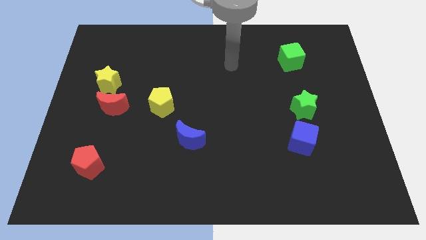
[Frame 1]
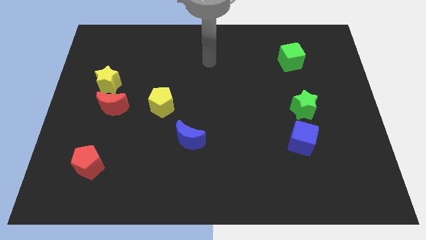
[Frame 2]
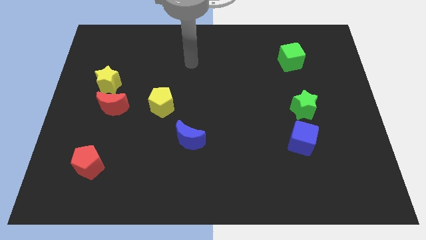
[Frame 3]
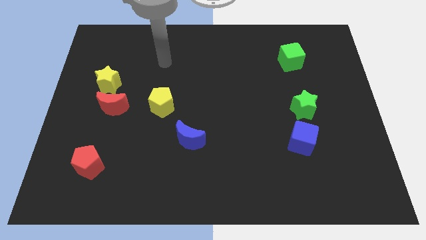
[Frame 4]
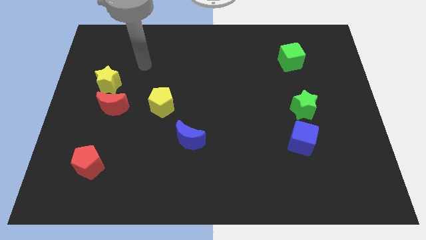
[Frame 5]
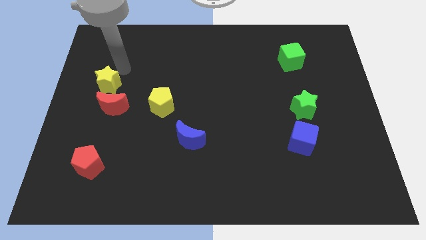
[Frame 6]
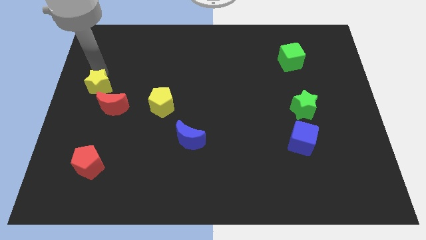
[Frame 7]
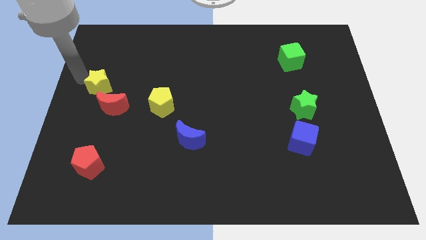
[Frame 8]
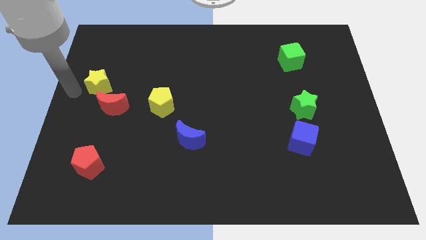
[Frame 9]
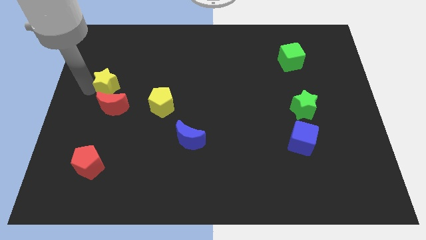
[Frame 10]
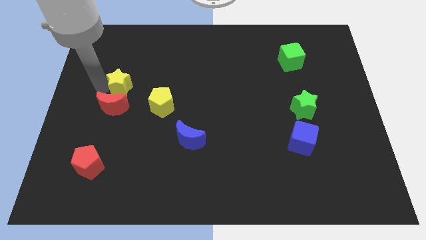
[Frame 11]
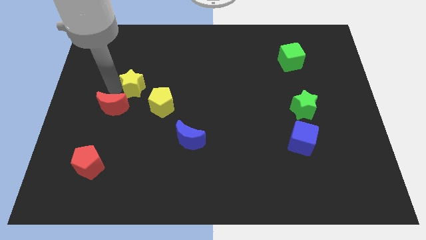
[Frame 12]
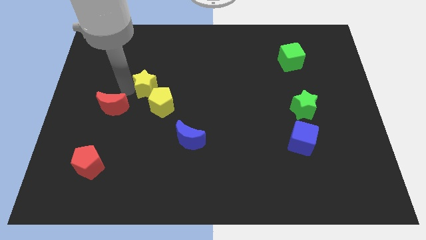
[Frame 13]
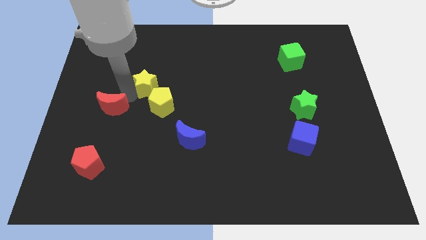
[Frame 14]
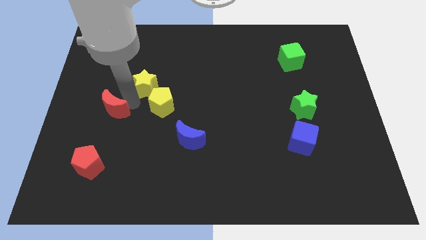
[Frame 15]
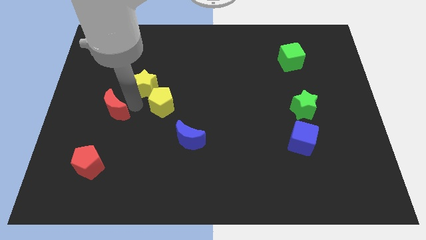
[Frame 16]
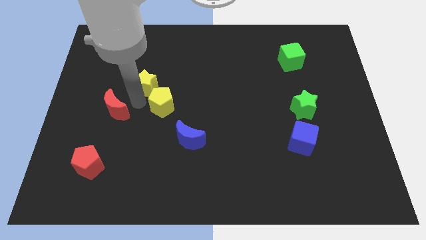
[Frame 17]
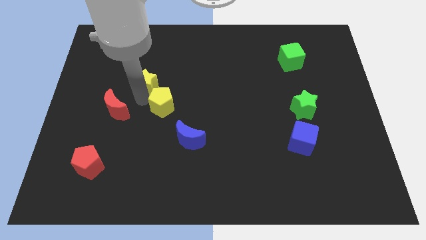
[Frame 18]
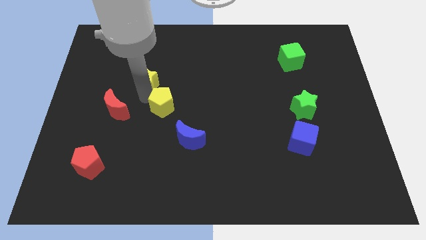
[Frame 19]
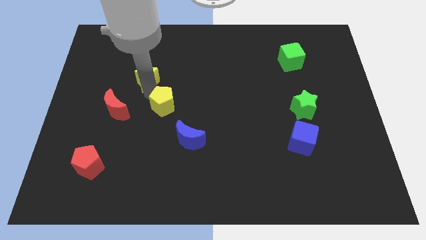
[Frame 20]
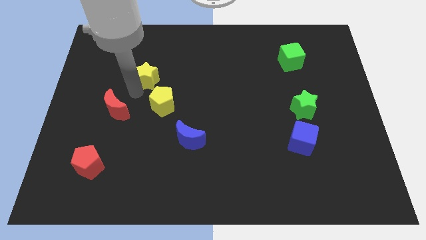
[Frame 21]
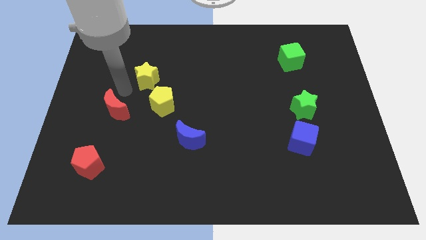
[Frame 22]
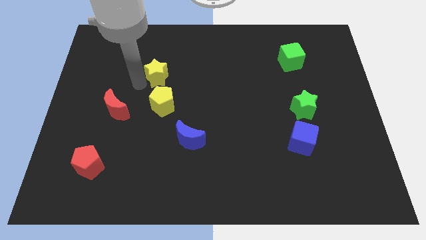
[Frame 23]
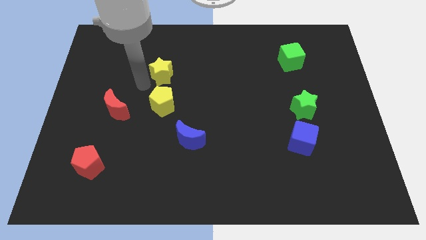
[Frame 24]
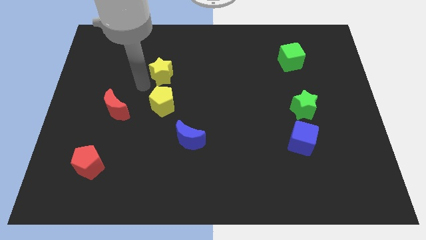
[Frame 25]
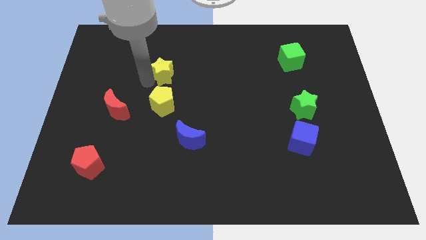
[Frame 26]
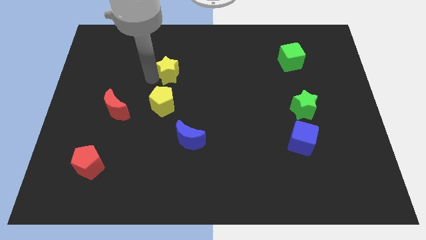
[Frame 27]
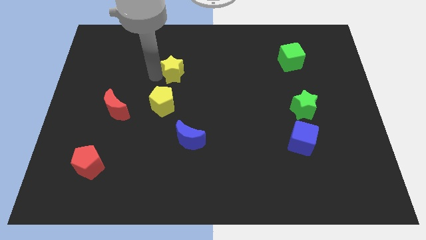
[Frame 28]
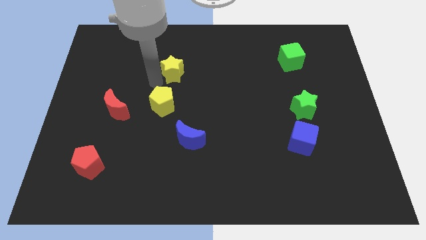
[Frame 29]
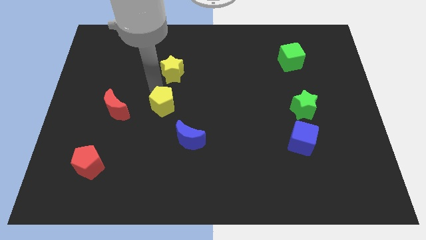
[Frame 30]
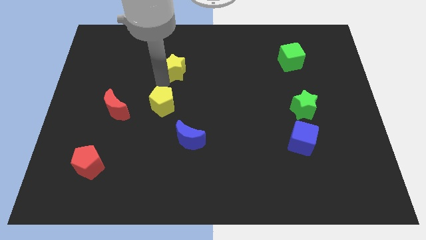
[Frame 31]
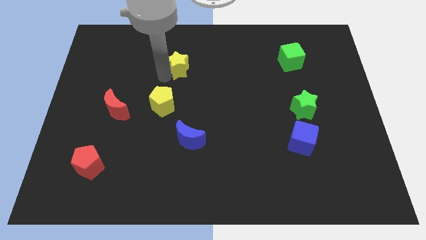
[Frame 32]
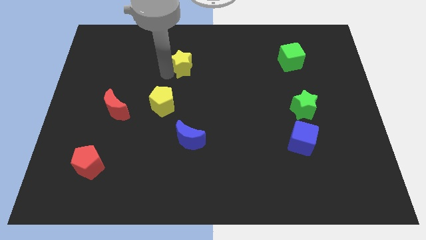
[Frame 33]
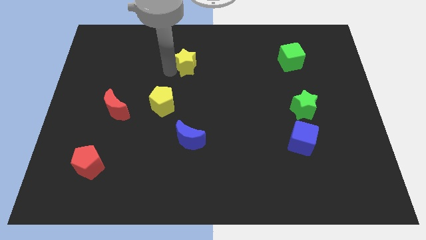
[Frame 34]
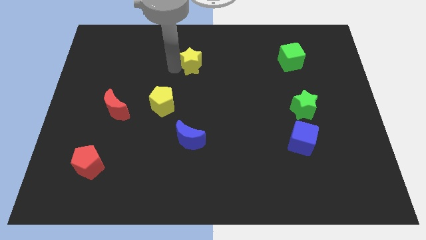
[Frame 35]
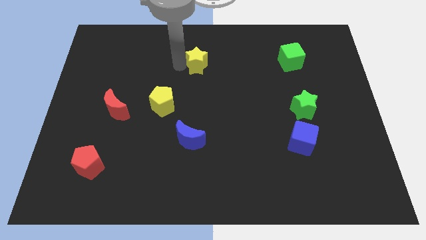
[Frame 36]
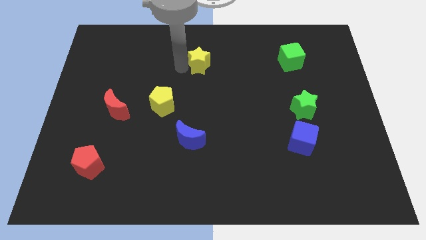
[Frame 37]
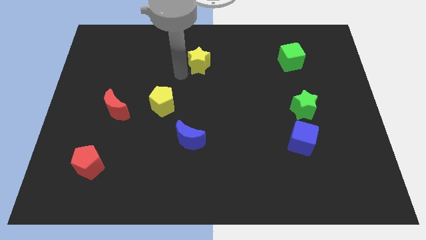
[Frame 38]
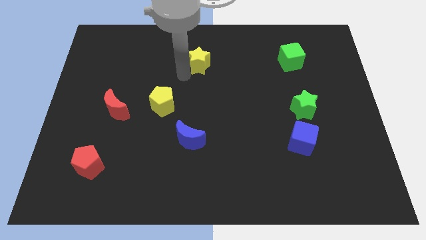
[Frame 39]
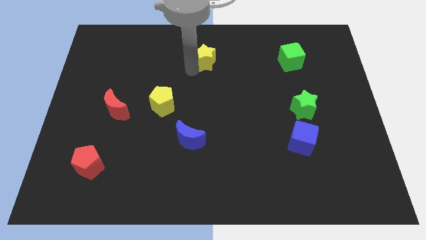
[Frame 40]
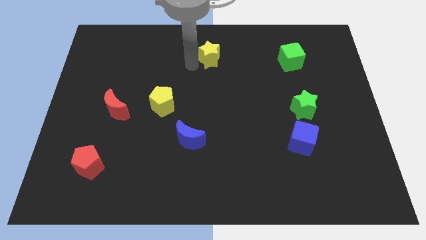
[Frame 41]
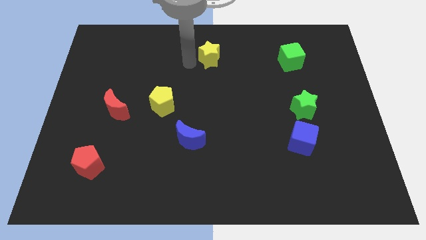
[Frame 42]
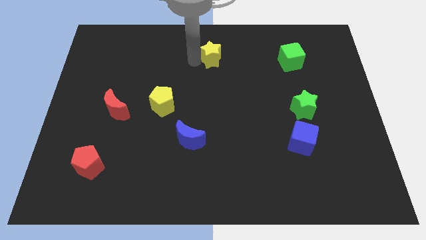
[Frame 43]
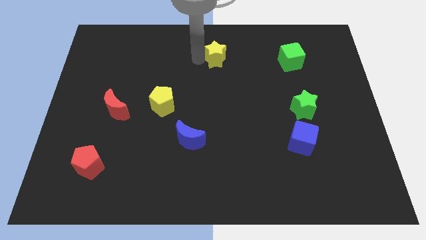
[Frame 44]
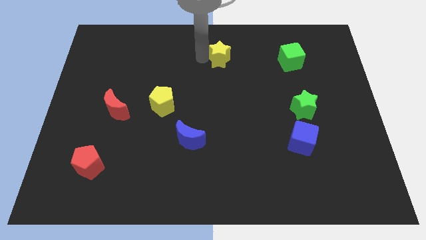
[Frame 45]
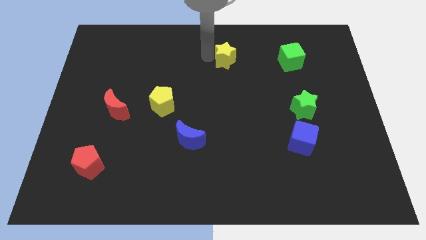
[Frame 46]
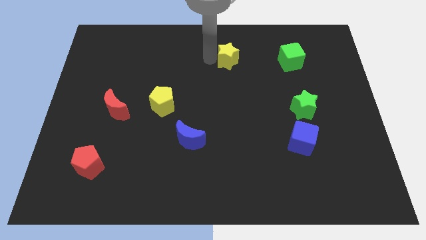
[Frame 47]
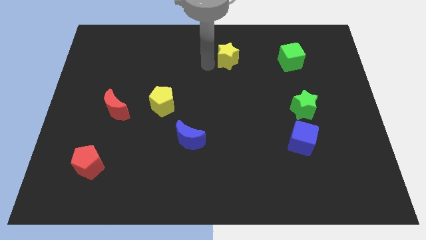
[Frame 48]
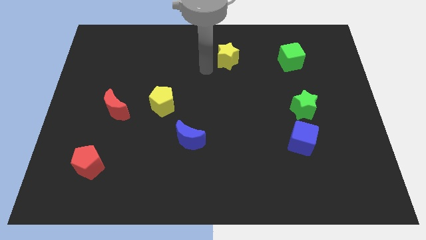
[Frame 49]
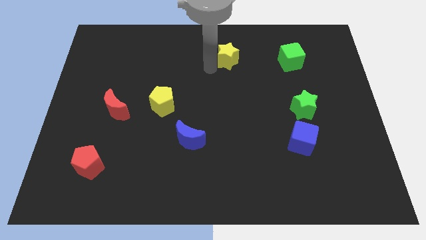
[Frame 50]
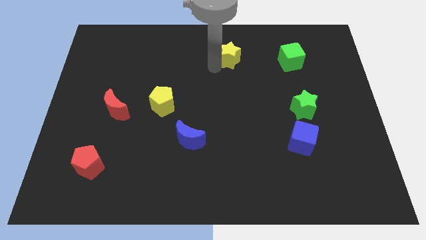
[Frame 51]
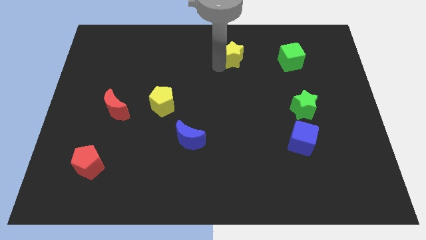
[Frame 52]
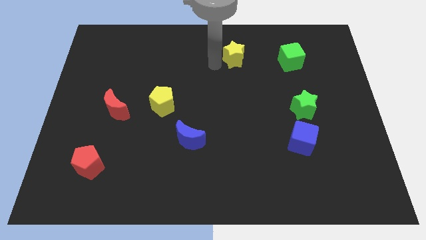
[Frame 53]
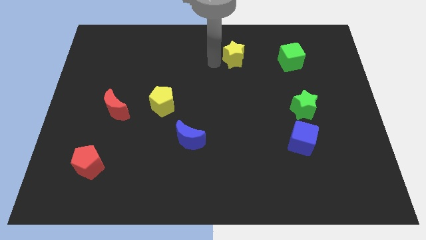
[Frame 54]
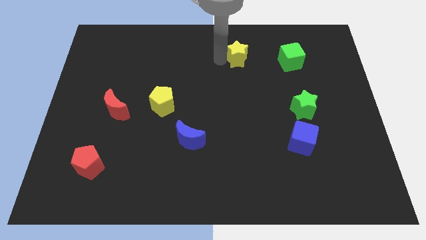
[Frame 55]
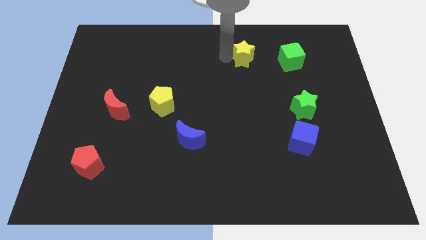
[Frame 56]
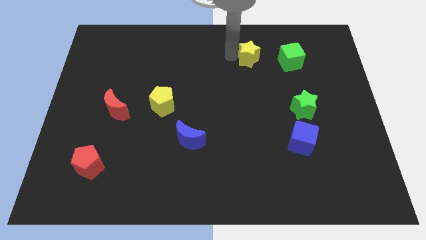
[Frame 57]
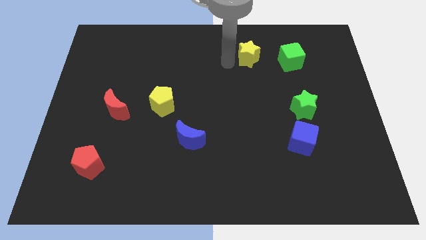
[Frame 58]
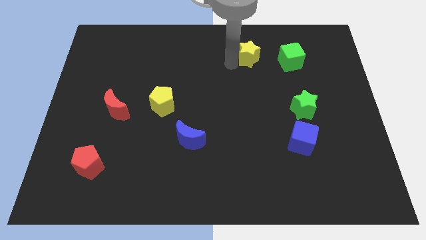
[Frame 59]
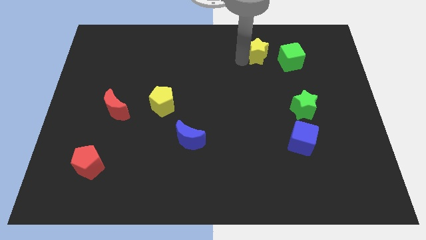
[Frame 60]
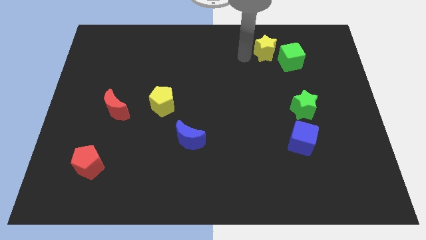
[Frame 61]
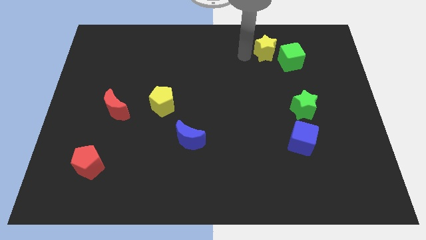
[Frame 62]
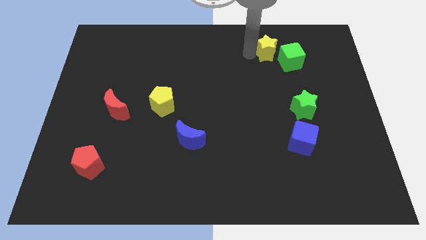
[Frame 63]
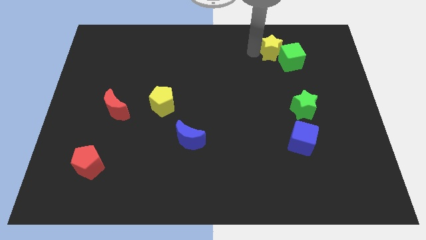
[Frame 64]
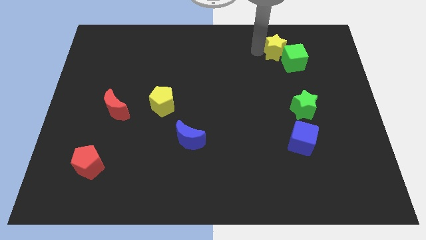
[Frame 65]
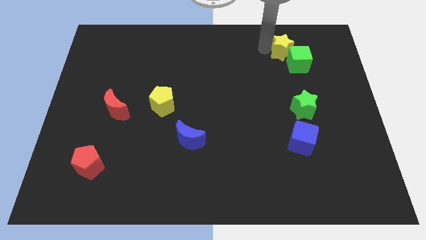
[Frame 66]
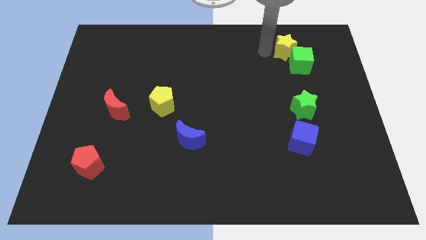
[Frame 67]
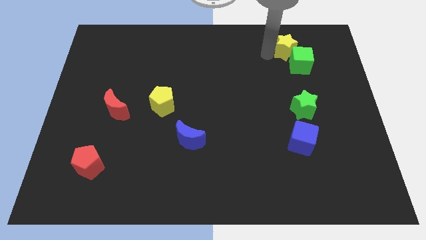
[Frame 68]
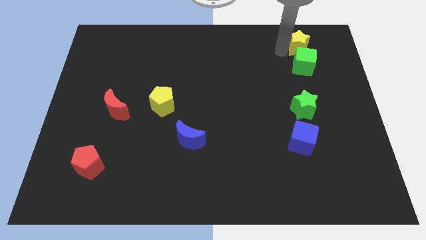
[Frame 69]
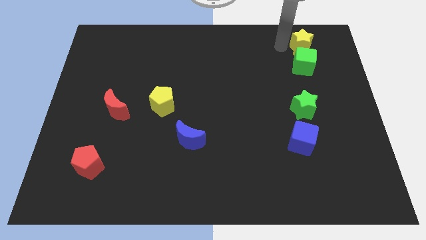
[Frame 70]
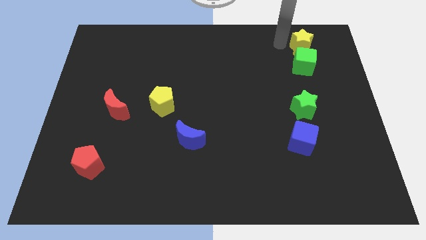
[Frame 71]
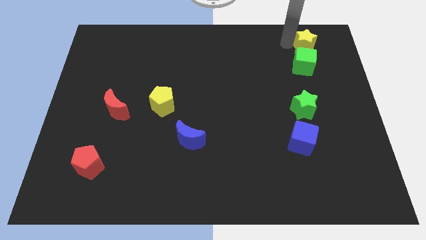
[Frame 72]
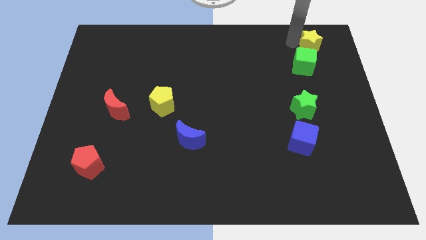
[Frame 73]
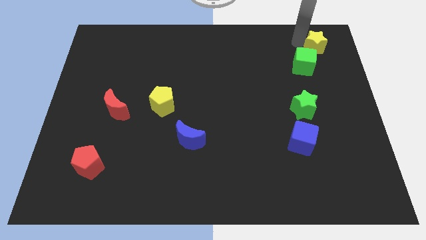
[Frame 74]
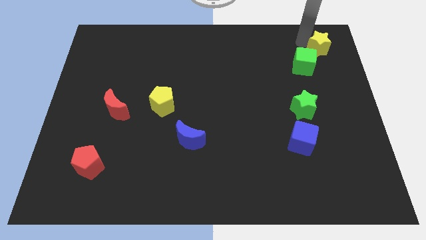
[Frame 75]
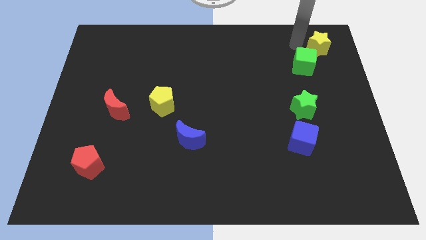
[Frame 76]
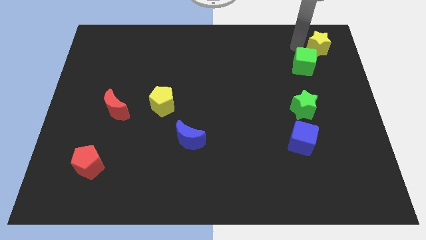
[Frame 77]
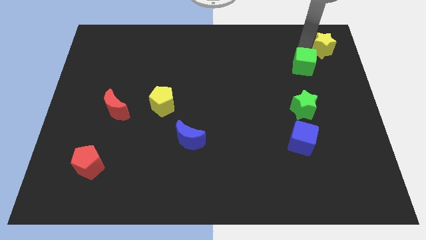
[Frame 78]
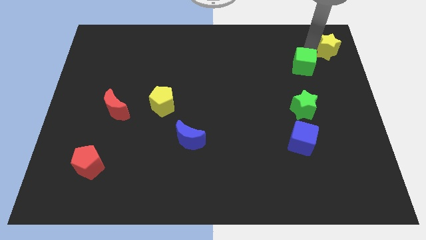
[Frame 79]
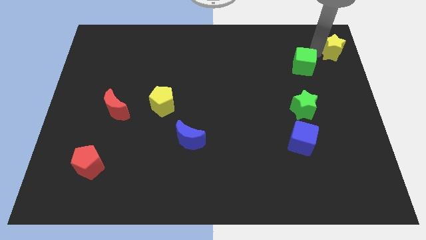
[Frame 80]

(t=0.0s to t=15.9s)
move the yellow star to the top right corner
